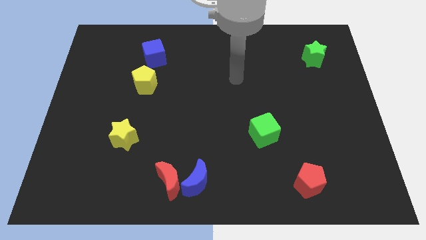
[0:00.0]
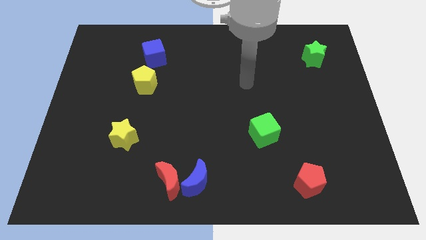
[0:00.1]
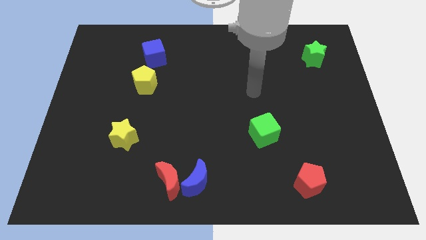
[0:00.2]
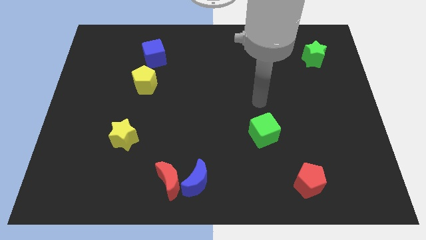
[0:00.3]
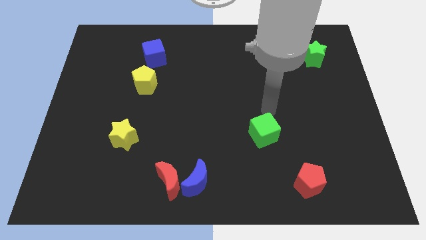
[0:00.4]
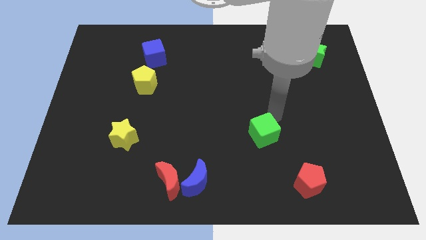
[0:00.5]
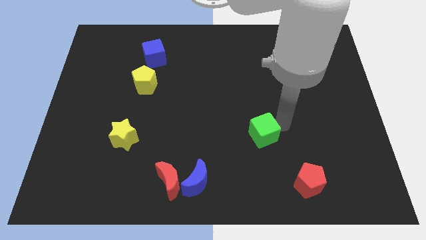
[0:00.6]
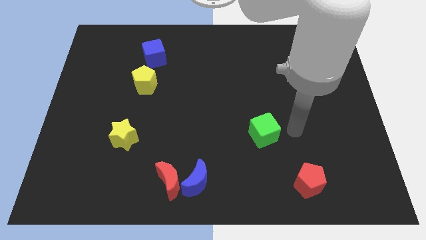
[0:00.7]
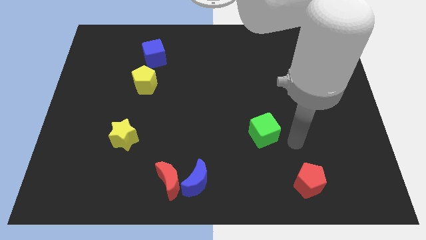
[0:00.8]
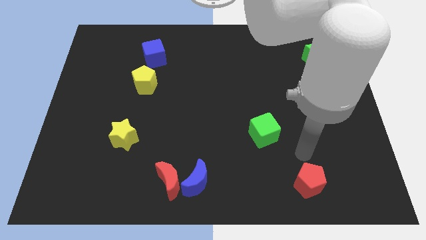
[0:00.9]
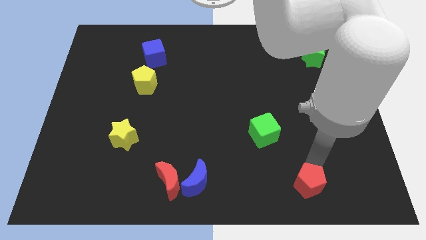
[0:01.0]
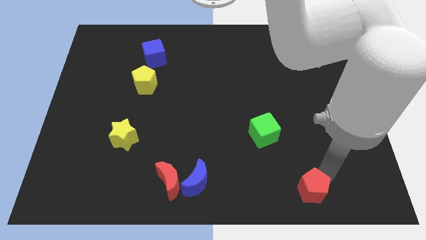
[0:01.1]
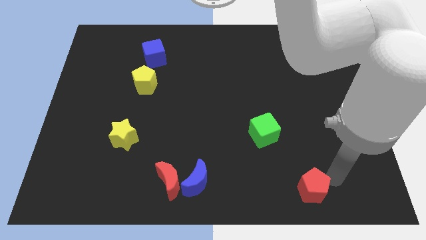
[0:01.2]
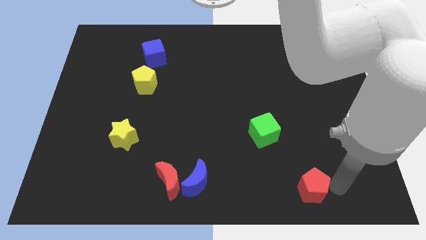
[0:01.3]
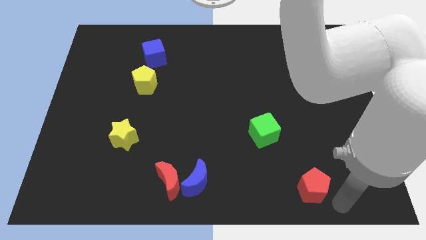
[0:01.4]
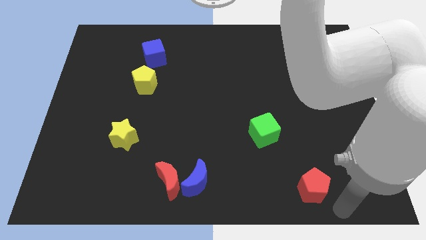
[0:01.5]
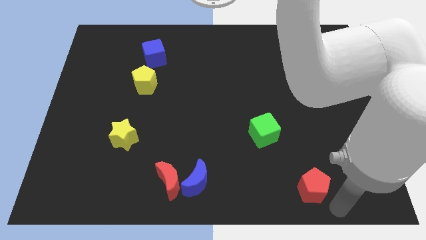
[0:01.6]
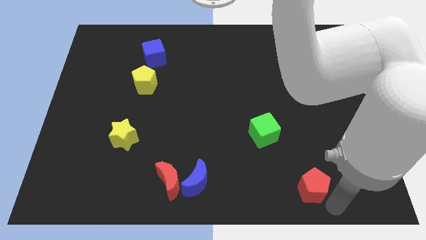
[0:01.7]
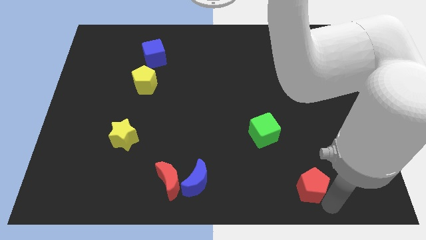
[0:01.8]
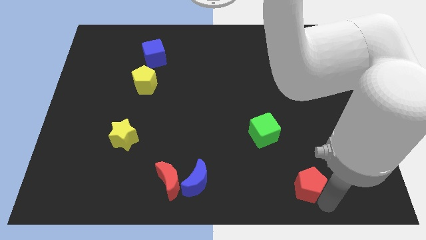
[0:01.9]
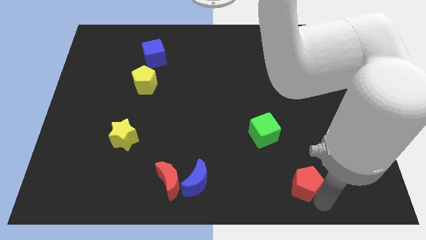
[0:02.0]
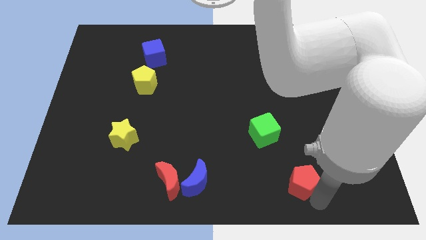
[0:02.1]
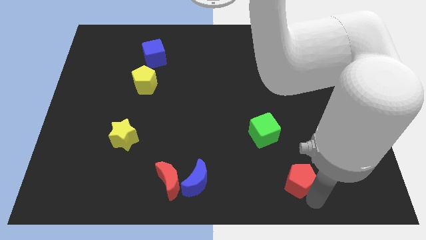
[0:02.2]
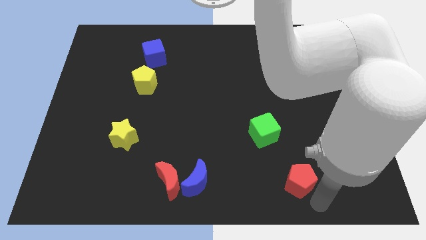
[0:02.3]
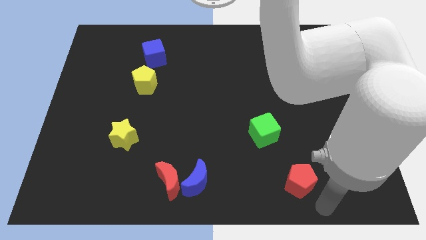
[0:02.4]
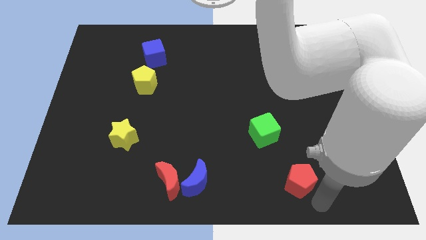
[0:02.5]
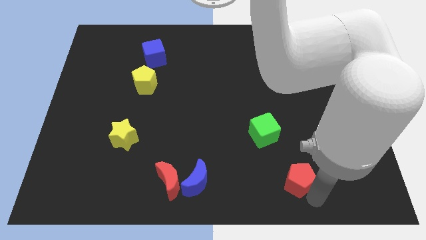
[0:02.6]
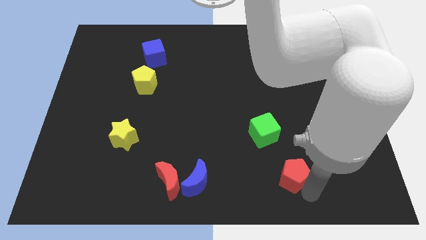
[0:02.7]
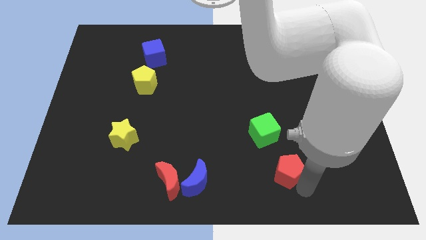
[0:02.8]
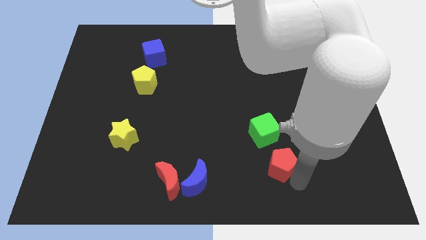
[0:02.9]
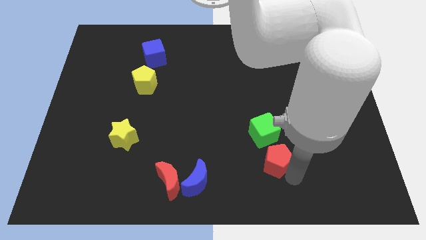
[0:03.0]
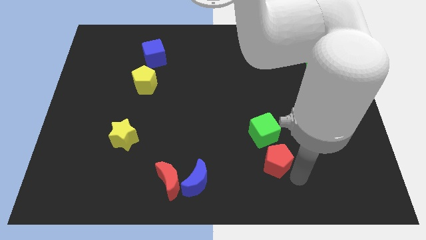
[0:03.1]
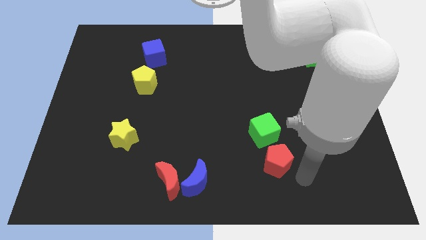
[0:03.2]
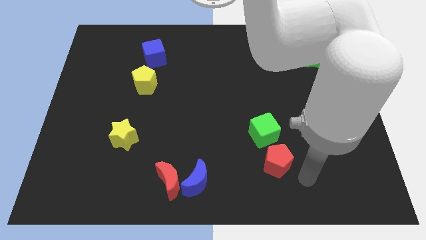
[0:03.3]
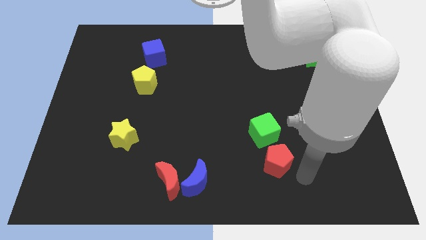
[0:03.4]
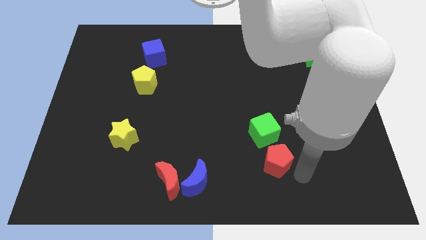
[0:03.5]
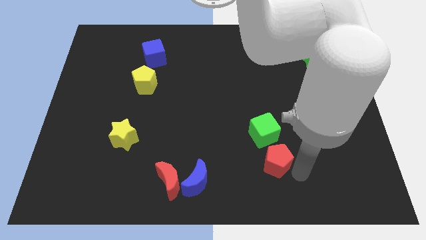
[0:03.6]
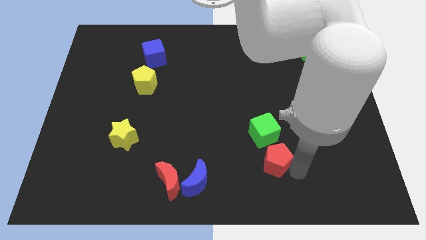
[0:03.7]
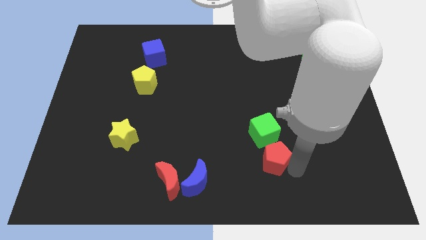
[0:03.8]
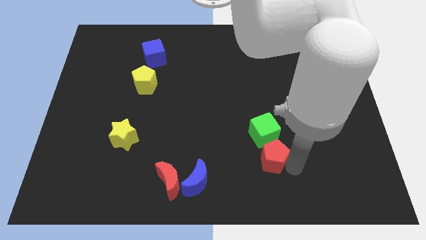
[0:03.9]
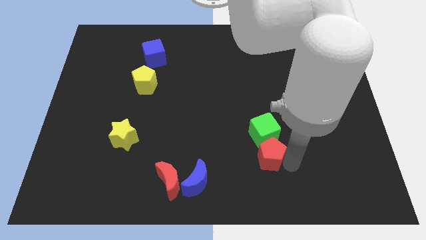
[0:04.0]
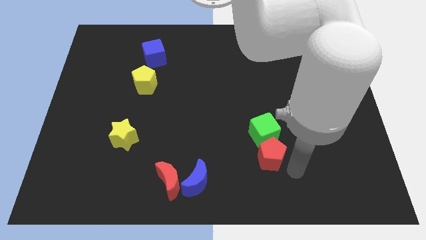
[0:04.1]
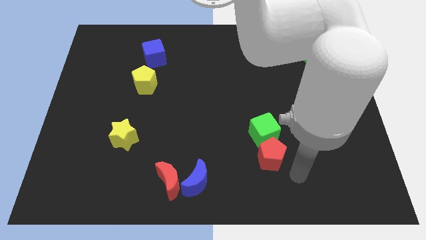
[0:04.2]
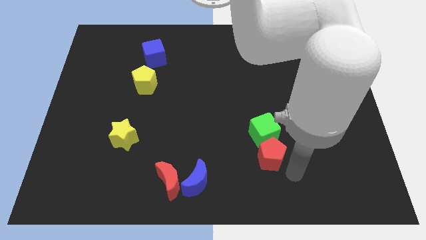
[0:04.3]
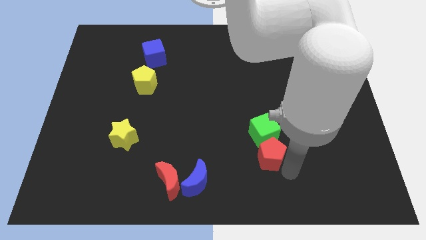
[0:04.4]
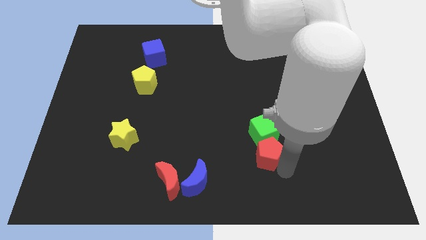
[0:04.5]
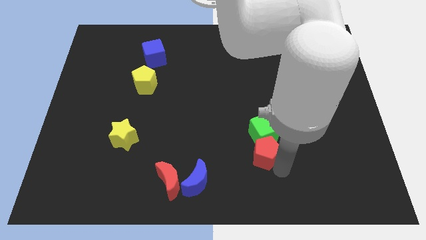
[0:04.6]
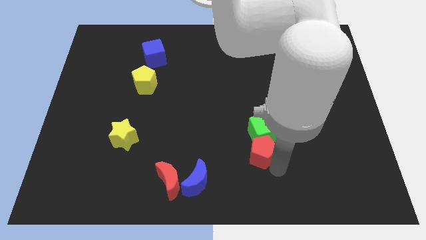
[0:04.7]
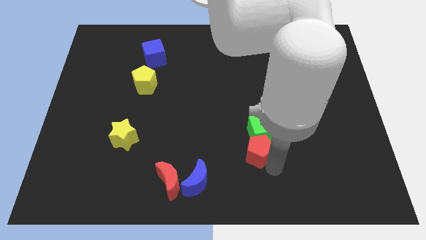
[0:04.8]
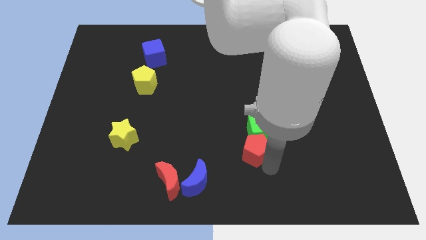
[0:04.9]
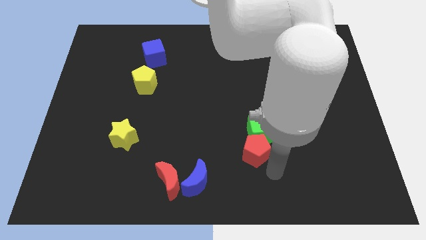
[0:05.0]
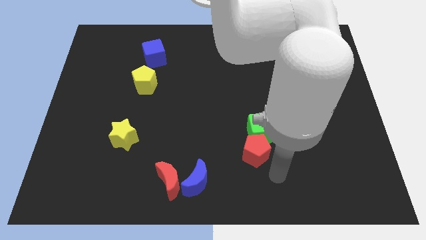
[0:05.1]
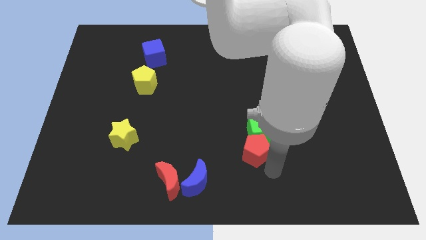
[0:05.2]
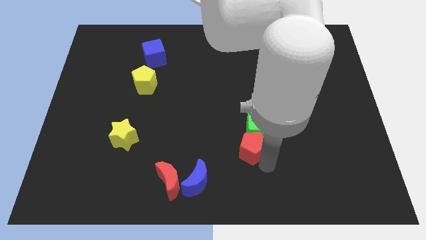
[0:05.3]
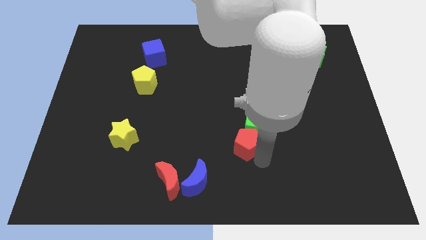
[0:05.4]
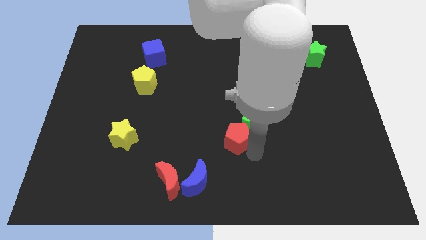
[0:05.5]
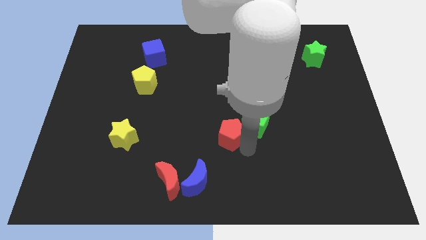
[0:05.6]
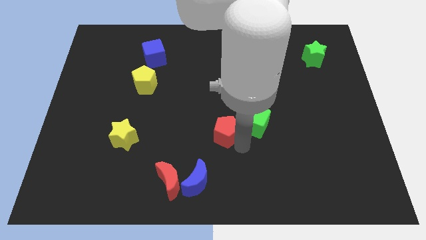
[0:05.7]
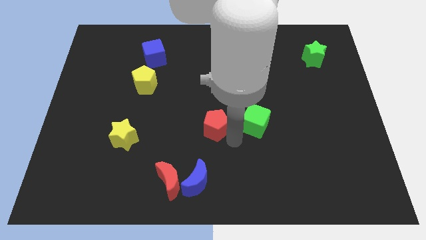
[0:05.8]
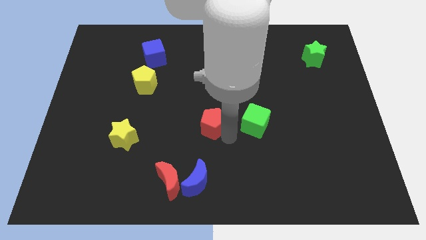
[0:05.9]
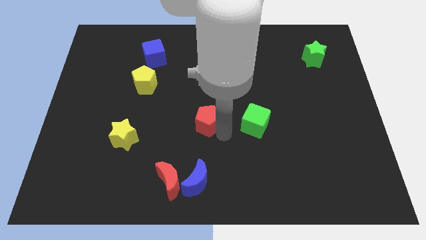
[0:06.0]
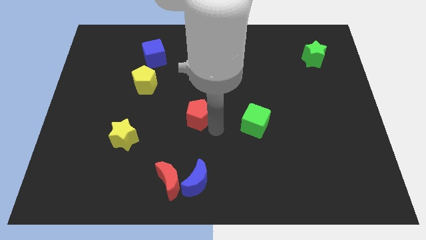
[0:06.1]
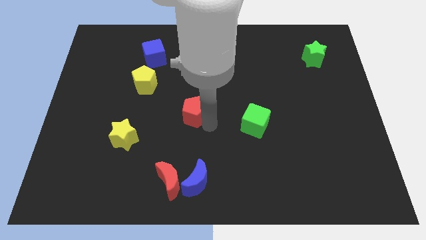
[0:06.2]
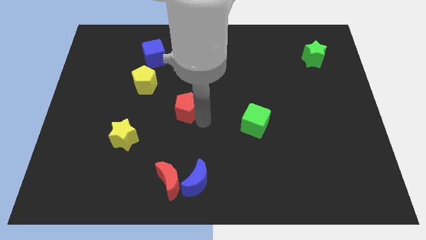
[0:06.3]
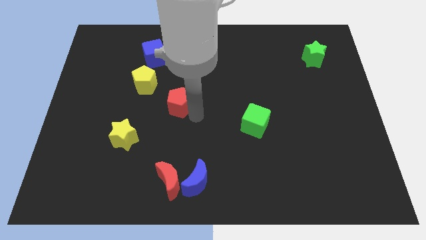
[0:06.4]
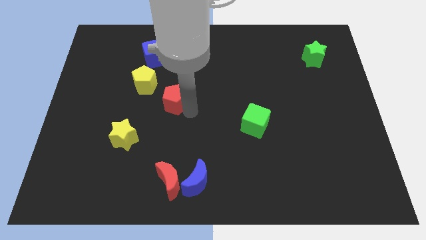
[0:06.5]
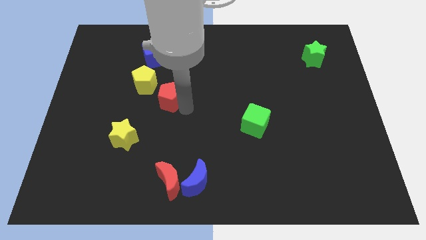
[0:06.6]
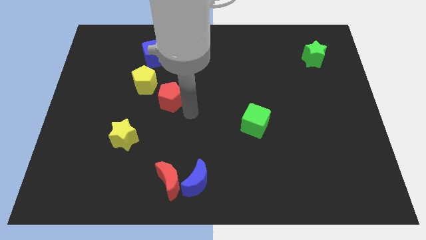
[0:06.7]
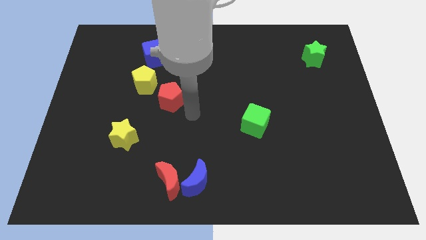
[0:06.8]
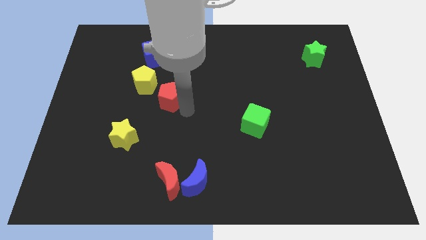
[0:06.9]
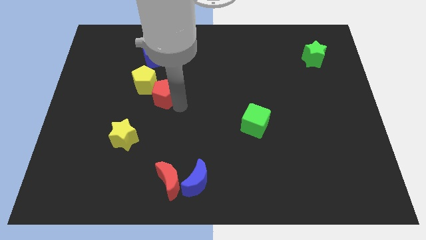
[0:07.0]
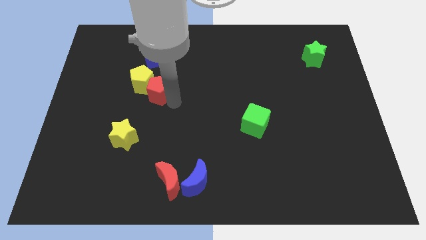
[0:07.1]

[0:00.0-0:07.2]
put the red pentagon close to the yellow pentagon
